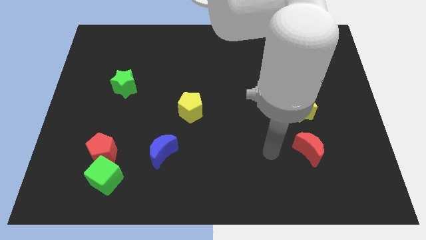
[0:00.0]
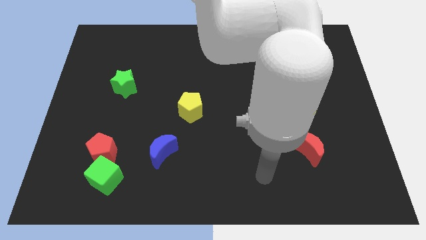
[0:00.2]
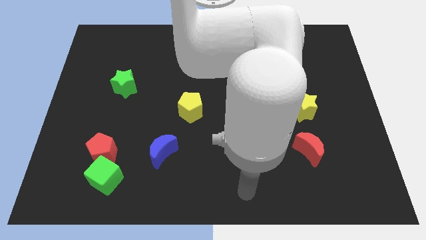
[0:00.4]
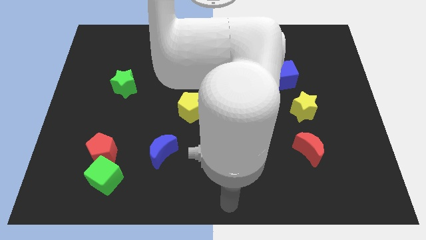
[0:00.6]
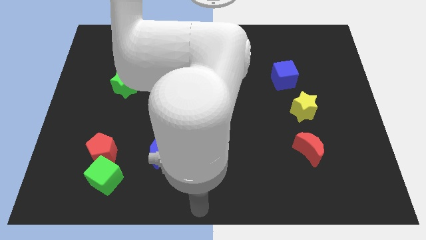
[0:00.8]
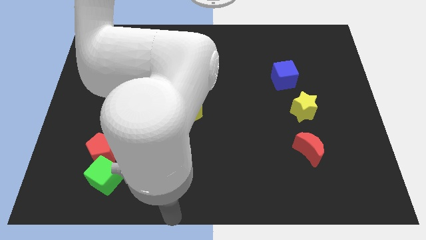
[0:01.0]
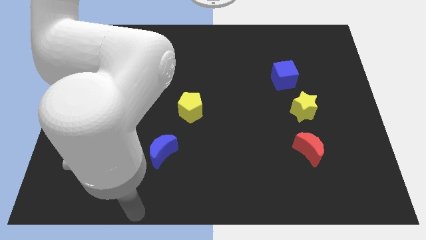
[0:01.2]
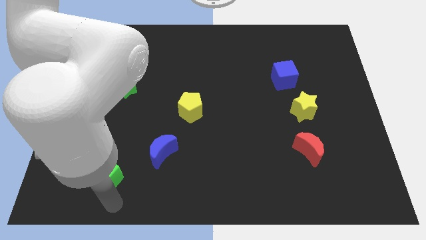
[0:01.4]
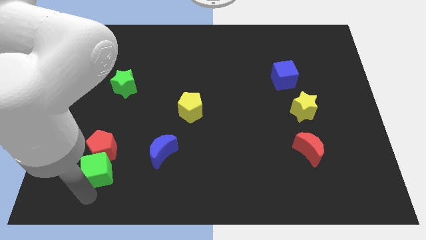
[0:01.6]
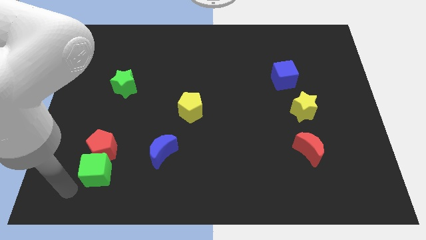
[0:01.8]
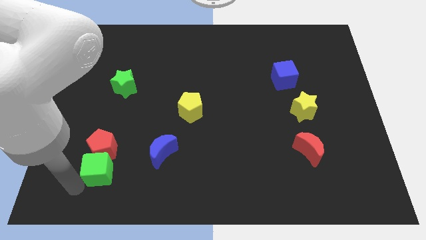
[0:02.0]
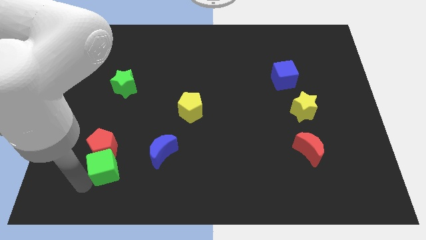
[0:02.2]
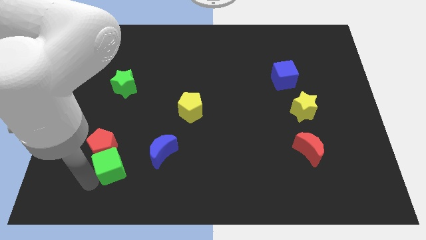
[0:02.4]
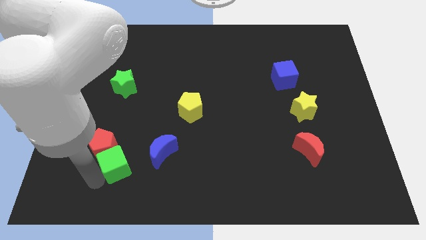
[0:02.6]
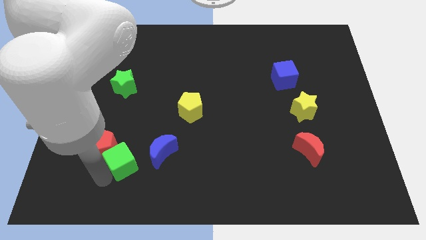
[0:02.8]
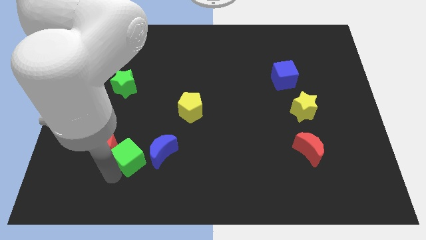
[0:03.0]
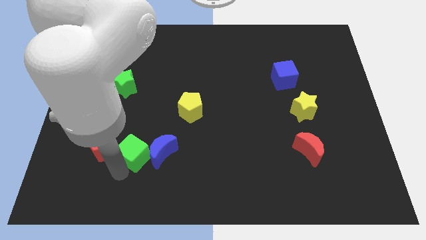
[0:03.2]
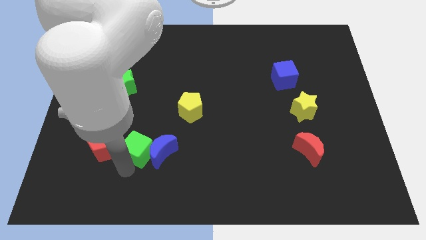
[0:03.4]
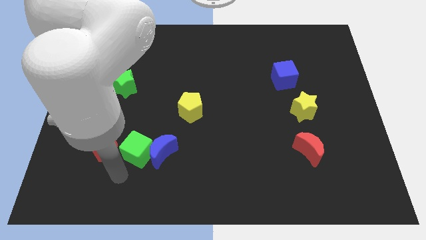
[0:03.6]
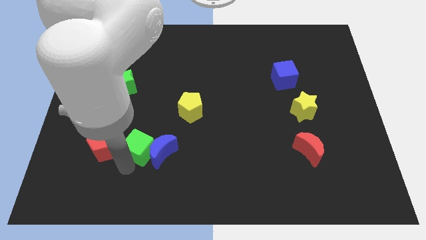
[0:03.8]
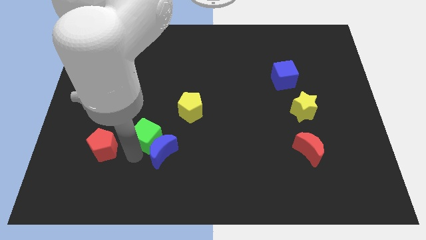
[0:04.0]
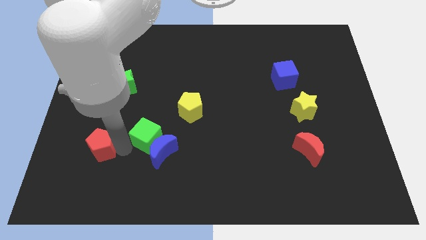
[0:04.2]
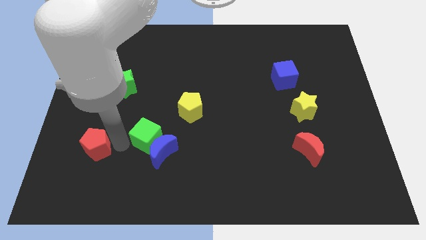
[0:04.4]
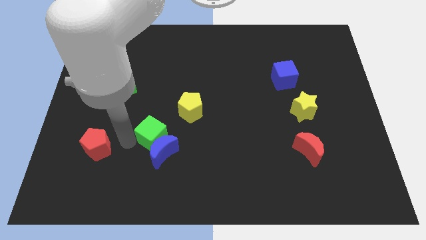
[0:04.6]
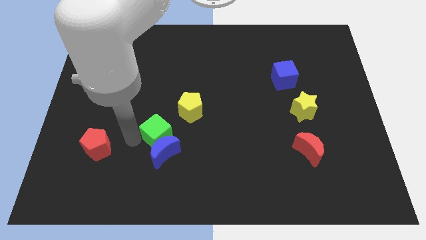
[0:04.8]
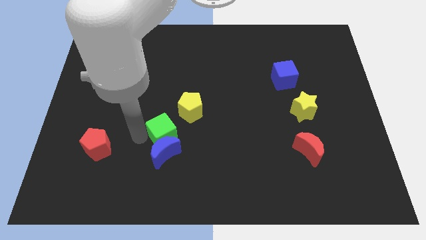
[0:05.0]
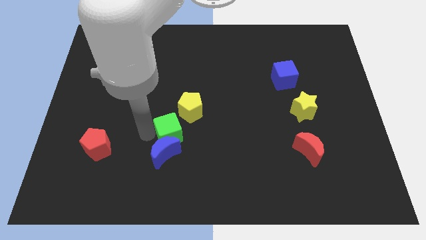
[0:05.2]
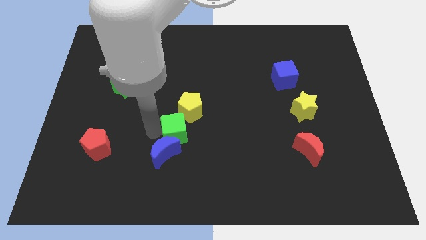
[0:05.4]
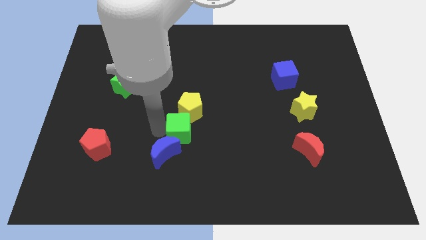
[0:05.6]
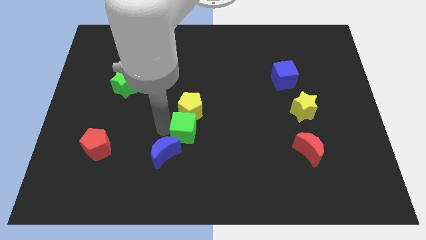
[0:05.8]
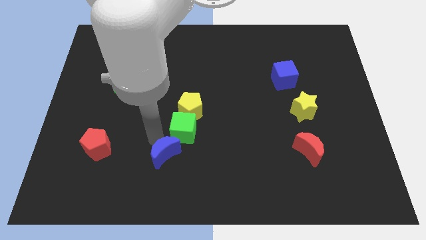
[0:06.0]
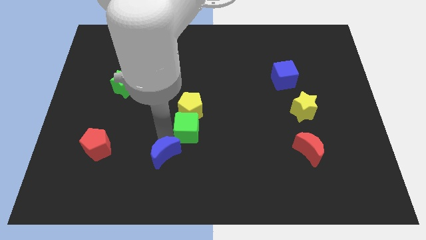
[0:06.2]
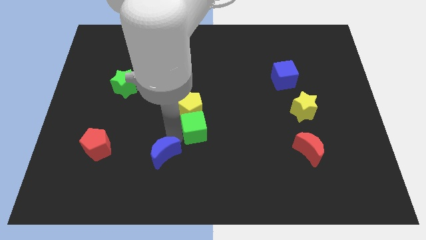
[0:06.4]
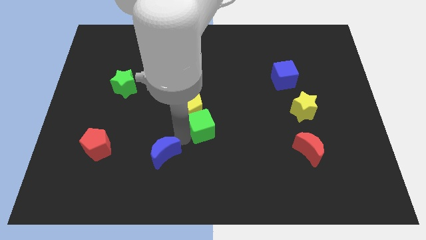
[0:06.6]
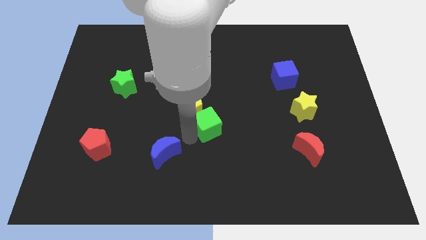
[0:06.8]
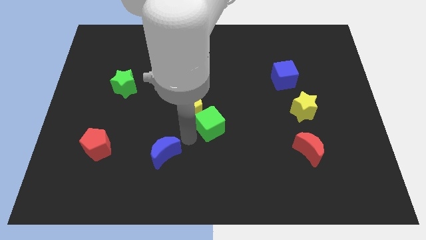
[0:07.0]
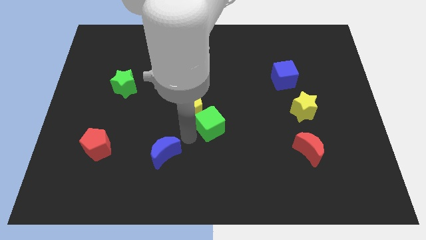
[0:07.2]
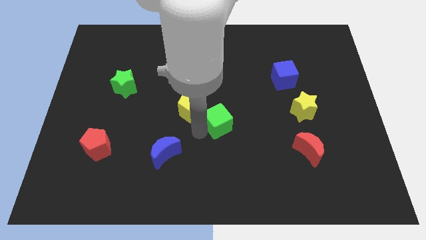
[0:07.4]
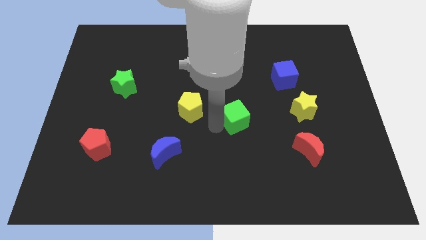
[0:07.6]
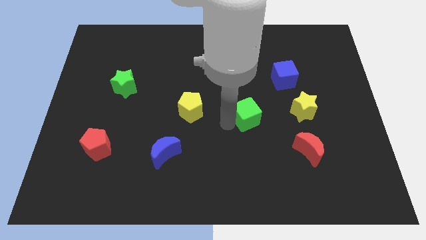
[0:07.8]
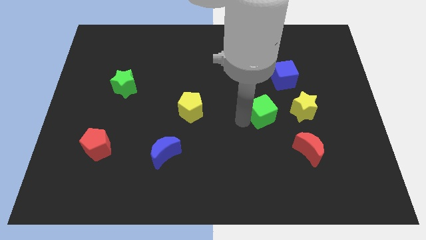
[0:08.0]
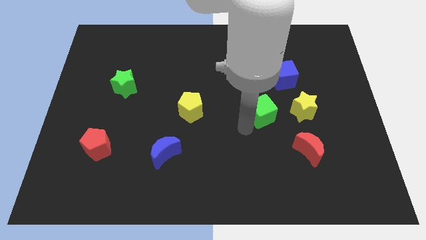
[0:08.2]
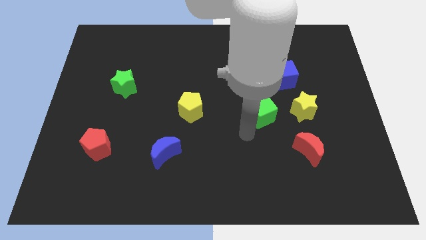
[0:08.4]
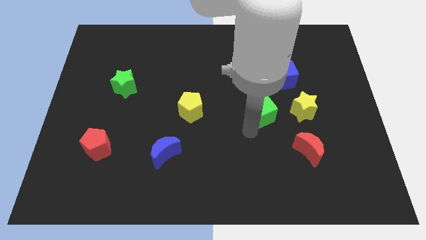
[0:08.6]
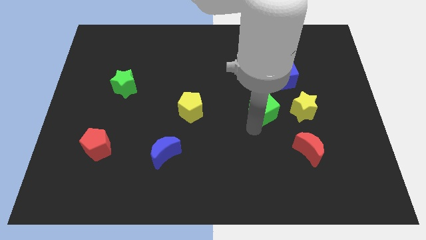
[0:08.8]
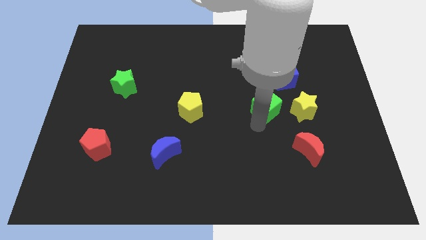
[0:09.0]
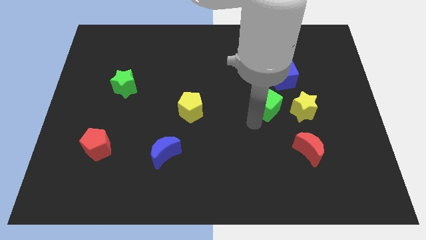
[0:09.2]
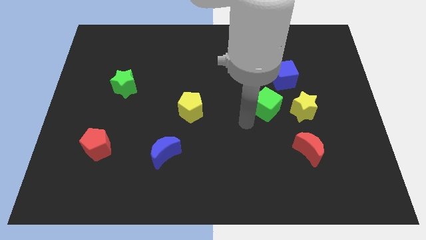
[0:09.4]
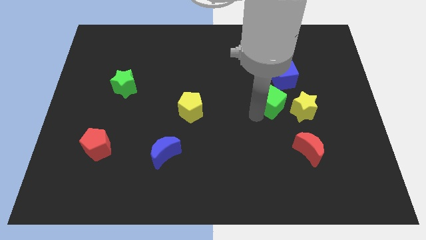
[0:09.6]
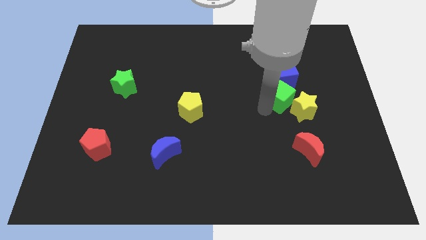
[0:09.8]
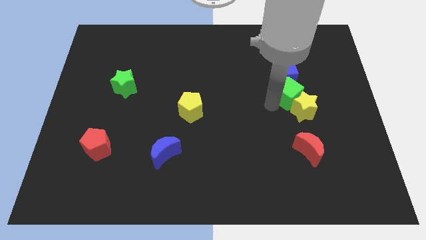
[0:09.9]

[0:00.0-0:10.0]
put the green cube to the top of the yellow star

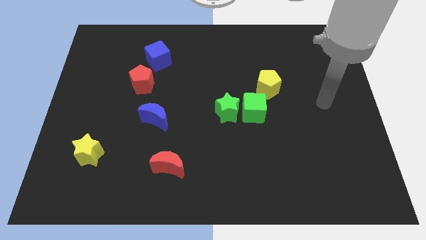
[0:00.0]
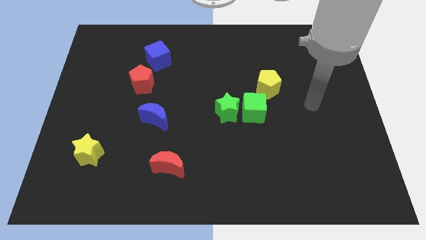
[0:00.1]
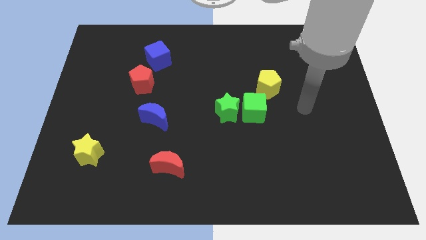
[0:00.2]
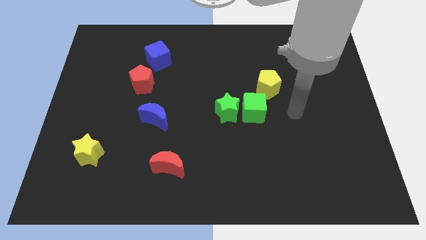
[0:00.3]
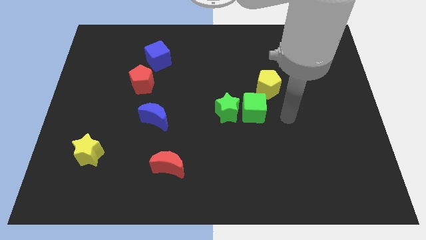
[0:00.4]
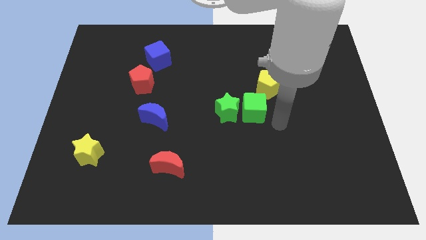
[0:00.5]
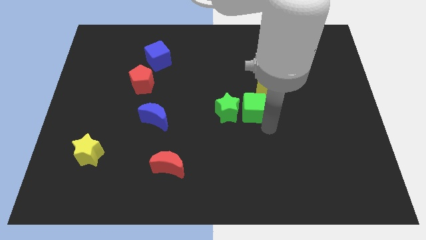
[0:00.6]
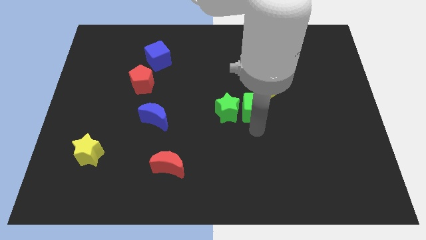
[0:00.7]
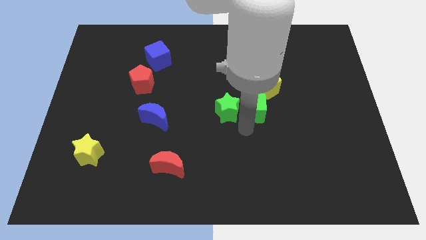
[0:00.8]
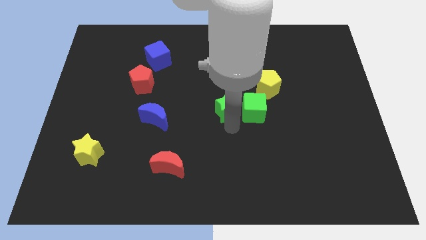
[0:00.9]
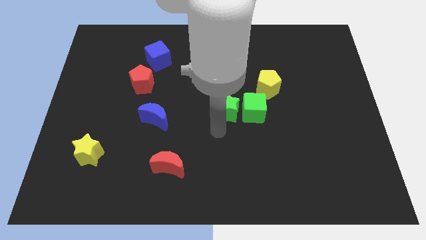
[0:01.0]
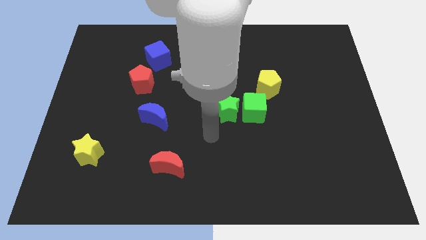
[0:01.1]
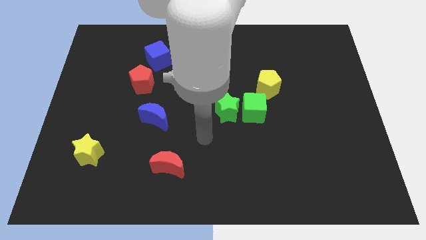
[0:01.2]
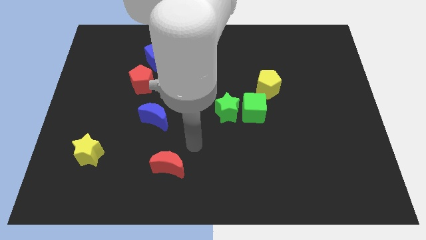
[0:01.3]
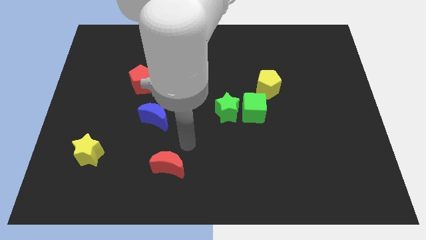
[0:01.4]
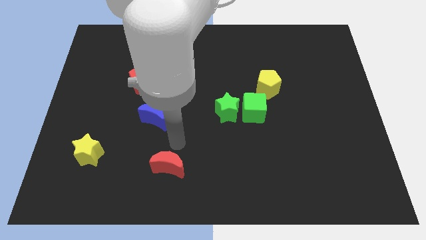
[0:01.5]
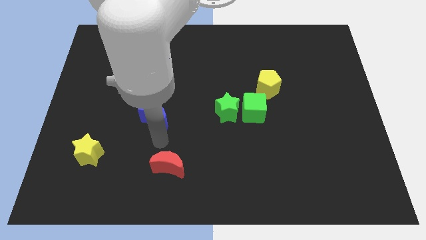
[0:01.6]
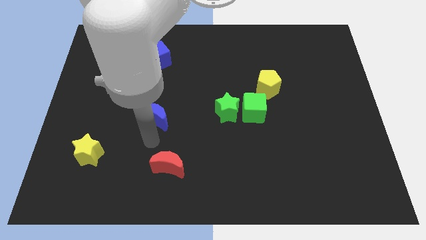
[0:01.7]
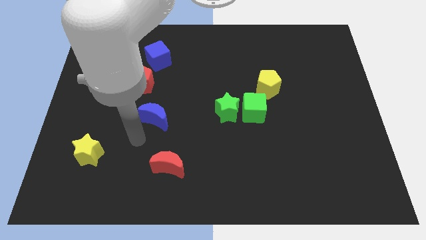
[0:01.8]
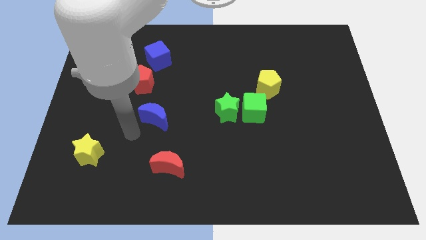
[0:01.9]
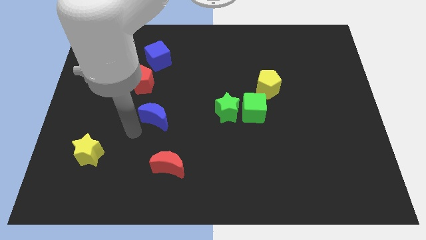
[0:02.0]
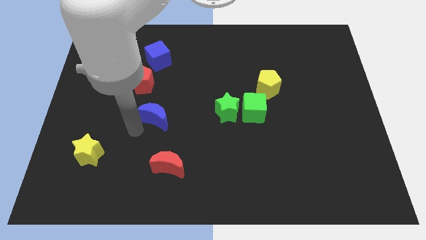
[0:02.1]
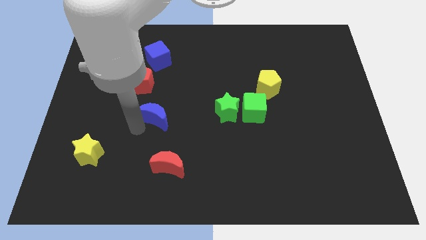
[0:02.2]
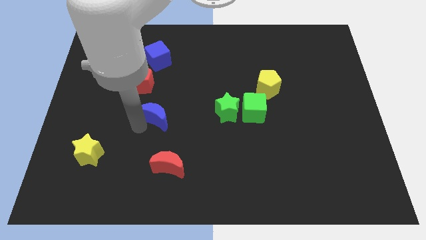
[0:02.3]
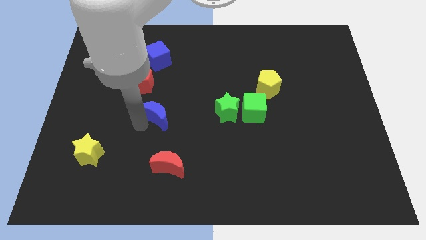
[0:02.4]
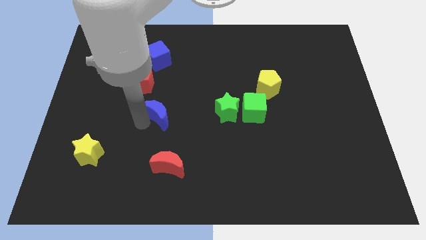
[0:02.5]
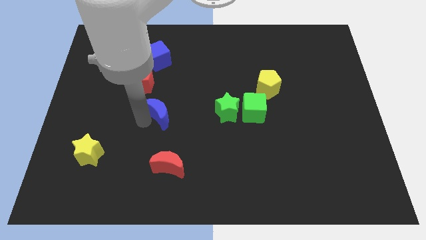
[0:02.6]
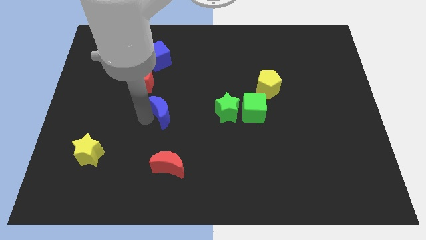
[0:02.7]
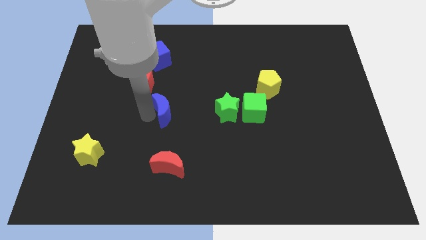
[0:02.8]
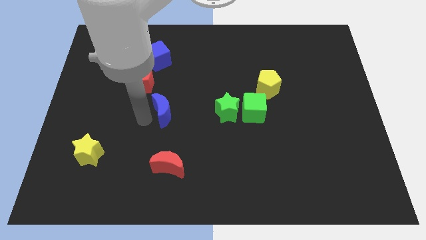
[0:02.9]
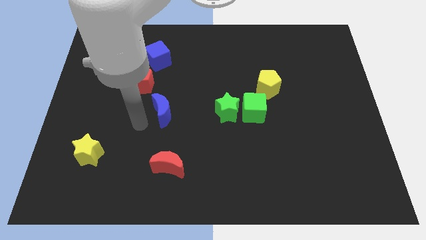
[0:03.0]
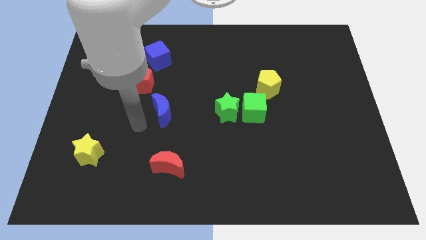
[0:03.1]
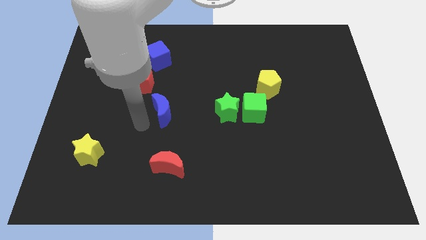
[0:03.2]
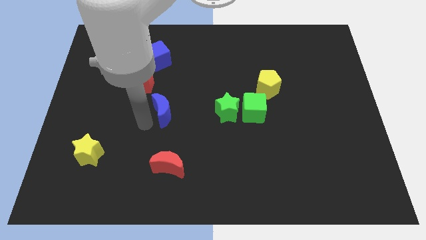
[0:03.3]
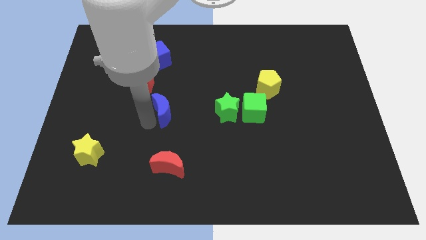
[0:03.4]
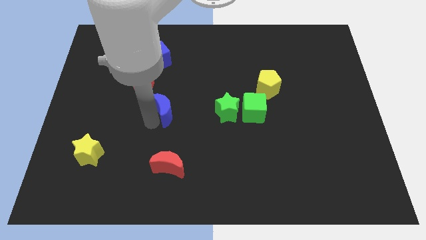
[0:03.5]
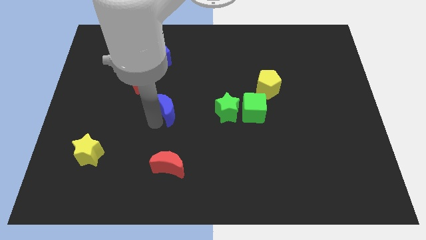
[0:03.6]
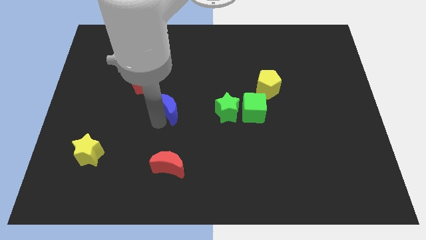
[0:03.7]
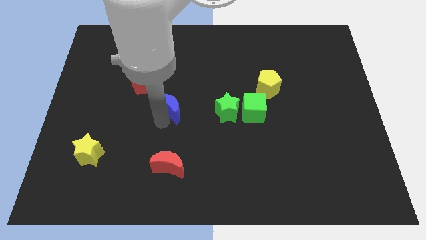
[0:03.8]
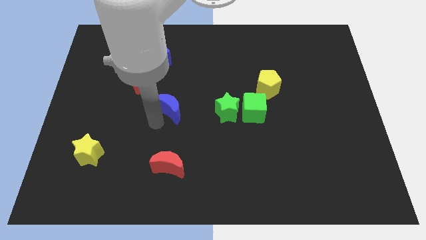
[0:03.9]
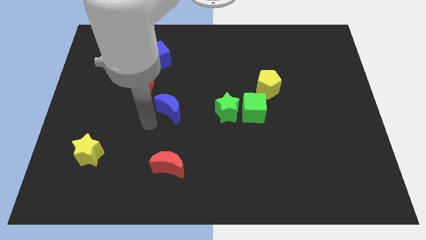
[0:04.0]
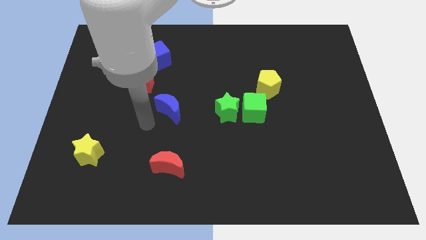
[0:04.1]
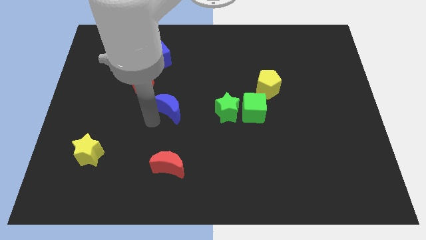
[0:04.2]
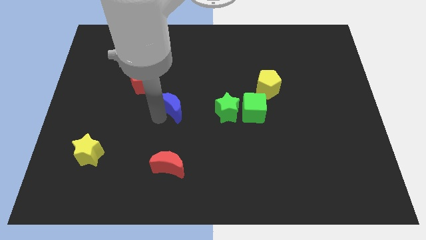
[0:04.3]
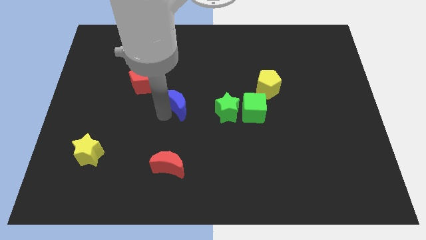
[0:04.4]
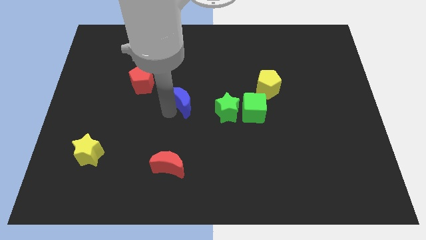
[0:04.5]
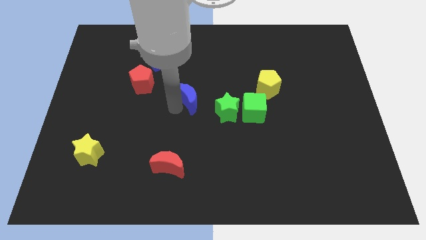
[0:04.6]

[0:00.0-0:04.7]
move the blue moon to the top left side of the green star
